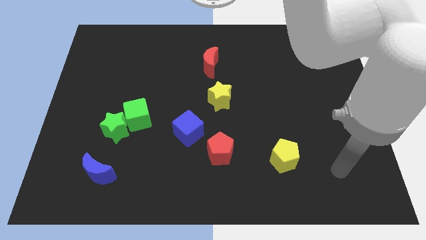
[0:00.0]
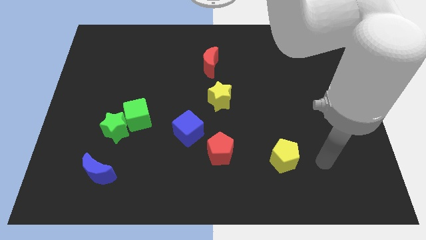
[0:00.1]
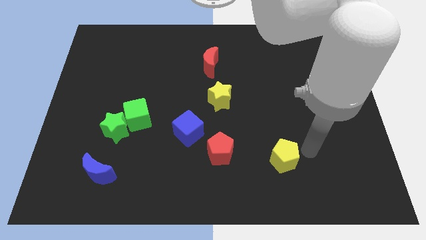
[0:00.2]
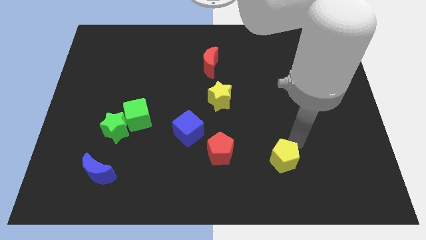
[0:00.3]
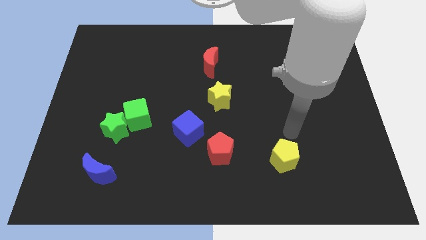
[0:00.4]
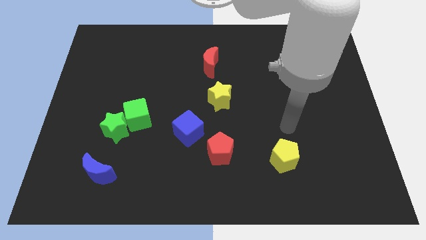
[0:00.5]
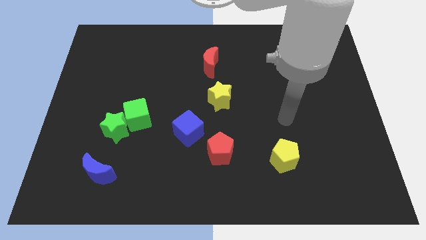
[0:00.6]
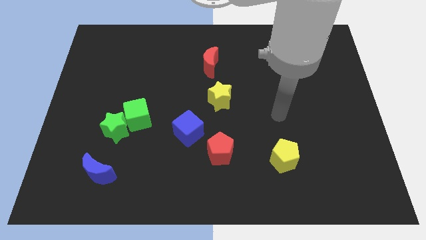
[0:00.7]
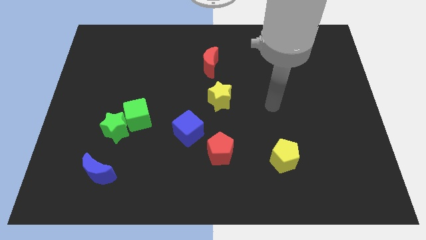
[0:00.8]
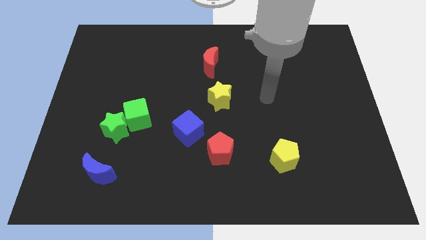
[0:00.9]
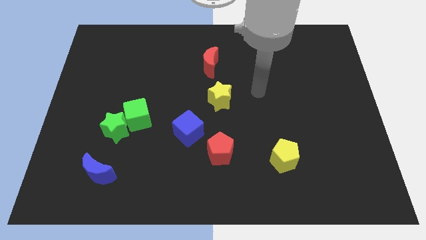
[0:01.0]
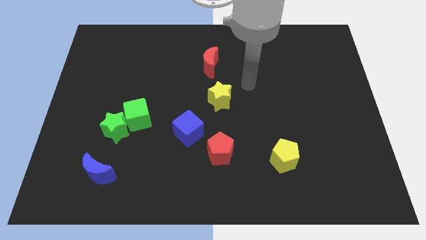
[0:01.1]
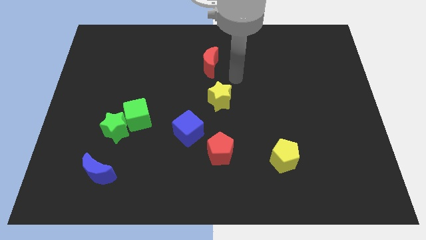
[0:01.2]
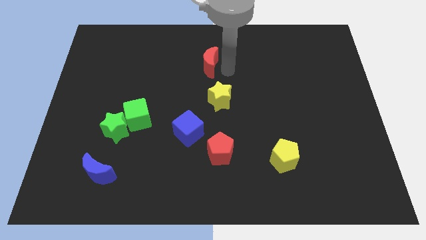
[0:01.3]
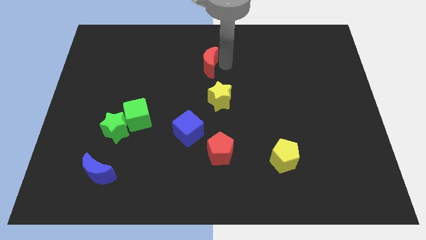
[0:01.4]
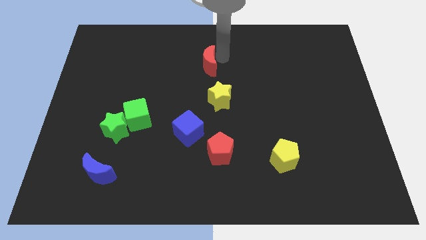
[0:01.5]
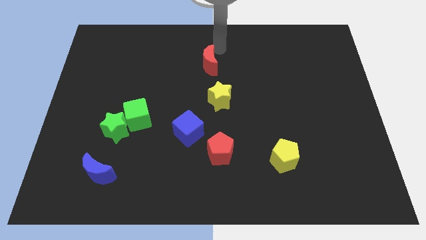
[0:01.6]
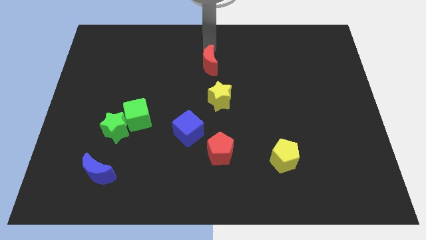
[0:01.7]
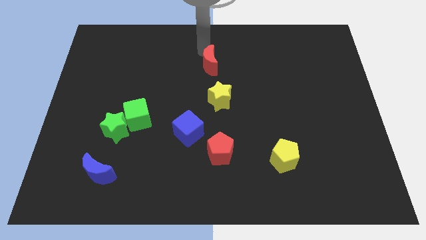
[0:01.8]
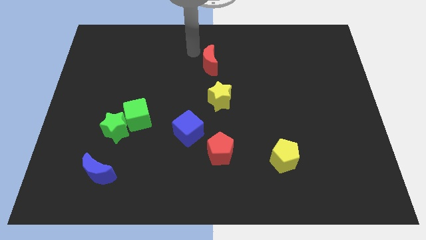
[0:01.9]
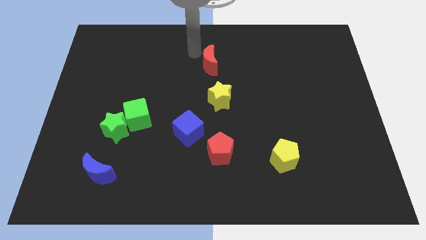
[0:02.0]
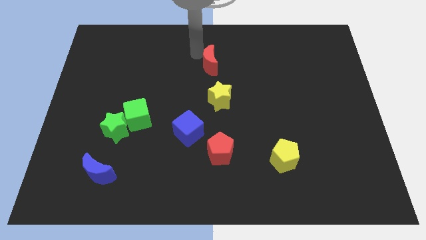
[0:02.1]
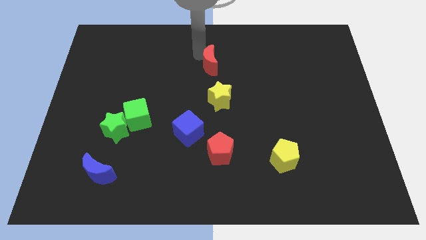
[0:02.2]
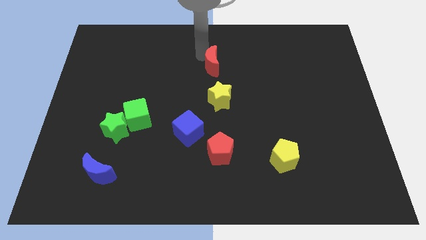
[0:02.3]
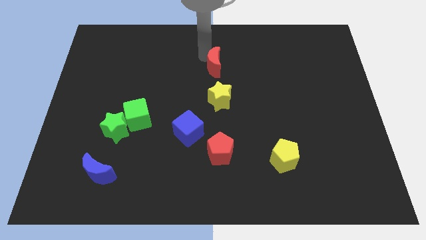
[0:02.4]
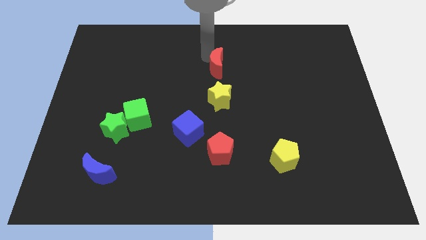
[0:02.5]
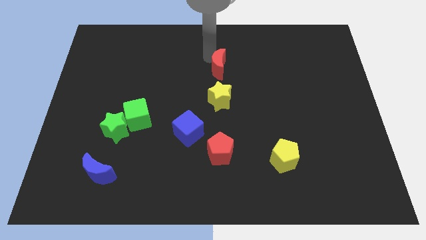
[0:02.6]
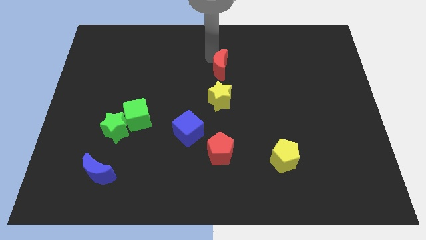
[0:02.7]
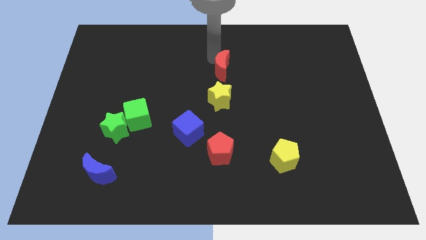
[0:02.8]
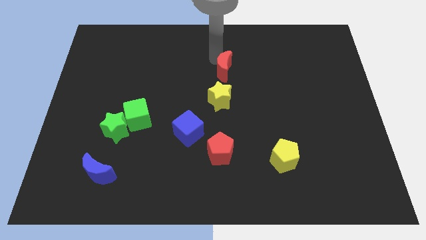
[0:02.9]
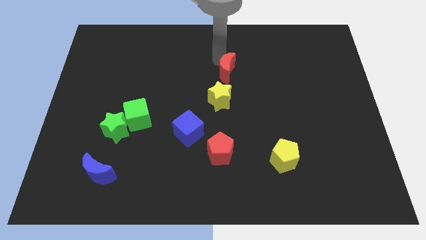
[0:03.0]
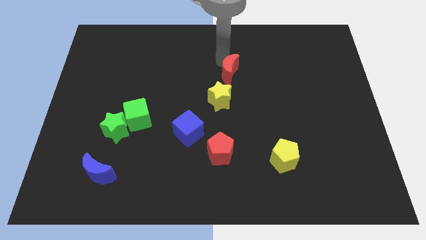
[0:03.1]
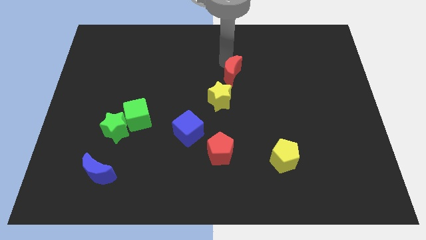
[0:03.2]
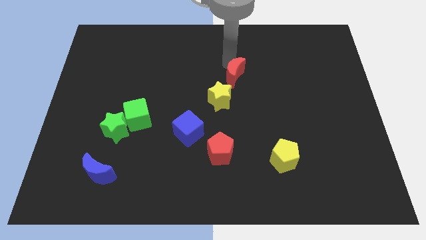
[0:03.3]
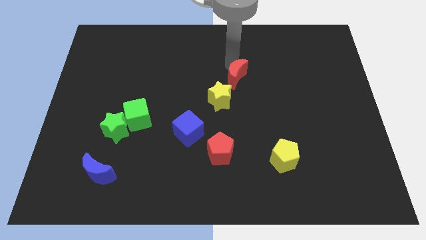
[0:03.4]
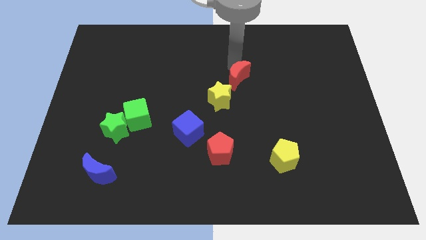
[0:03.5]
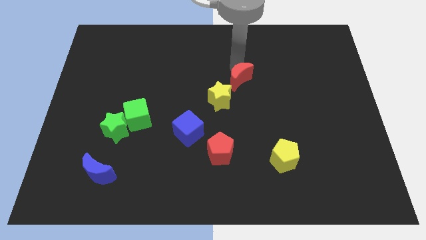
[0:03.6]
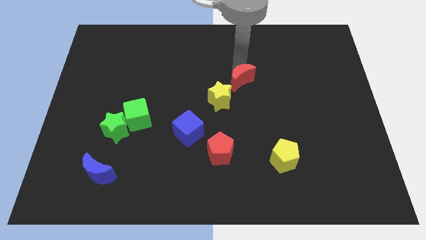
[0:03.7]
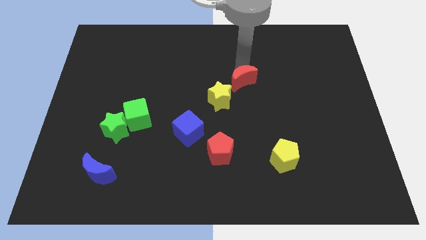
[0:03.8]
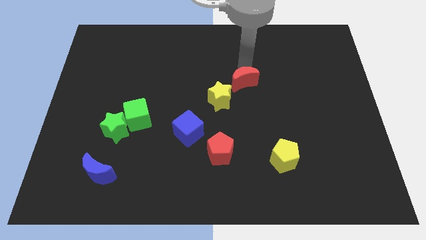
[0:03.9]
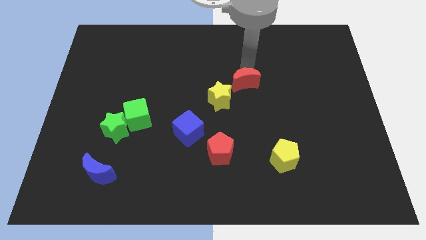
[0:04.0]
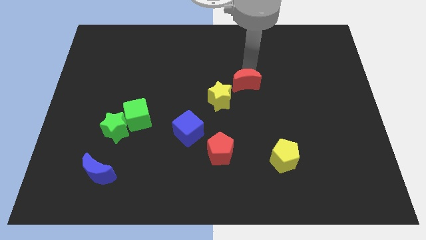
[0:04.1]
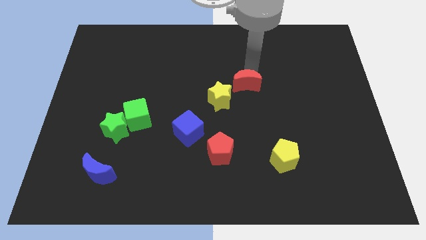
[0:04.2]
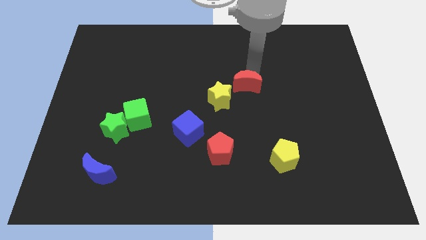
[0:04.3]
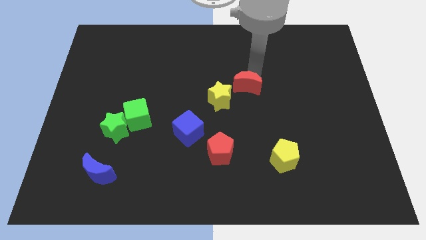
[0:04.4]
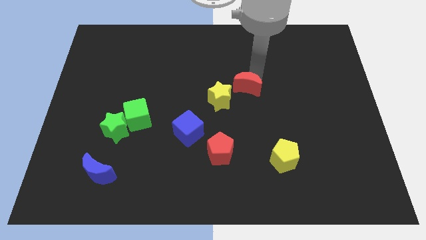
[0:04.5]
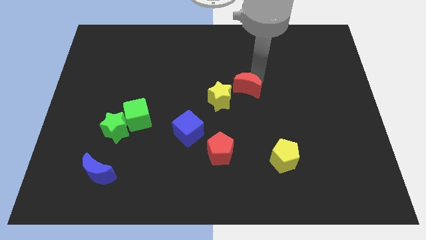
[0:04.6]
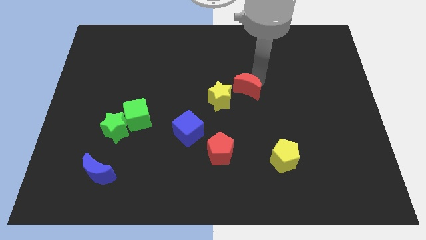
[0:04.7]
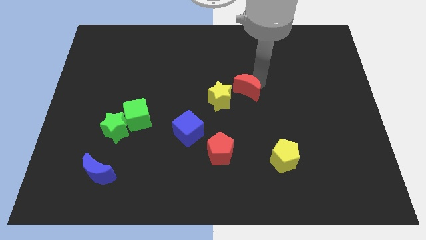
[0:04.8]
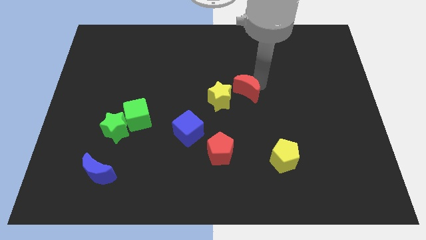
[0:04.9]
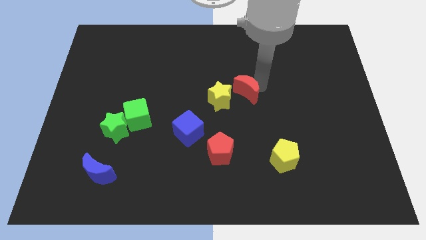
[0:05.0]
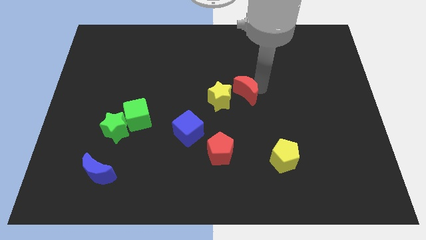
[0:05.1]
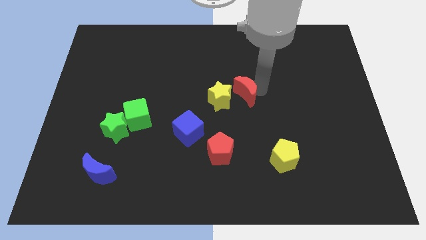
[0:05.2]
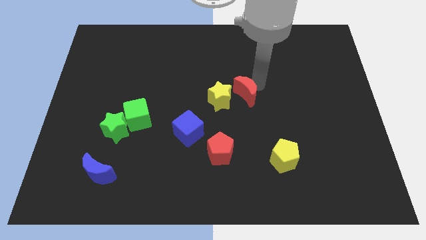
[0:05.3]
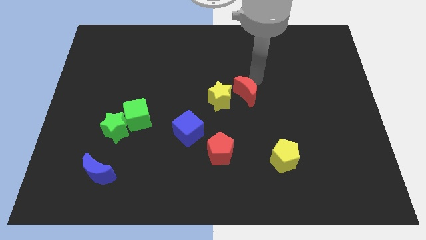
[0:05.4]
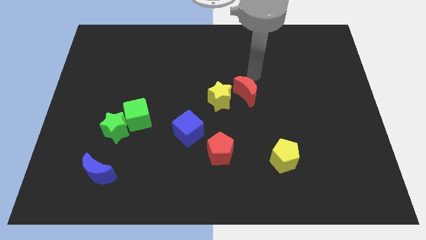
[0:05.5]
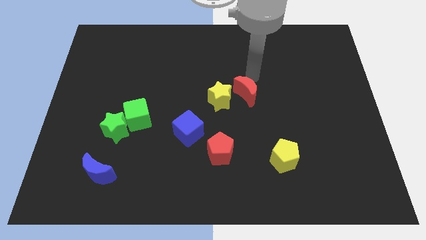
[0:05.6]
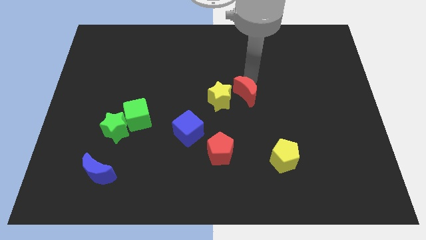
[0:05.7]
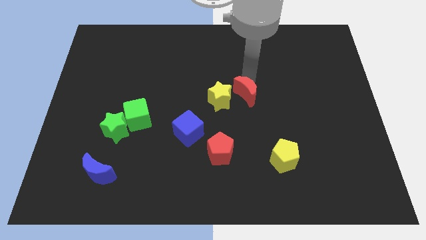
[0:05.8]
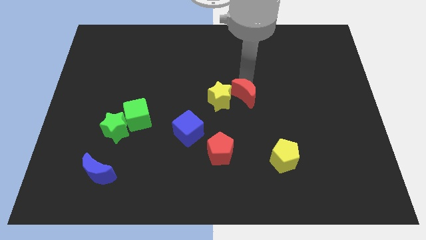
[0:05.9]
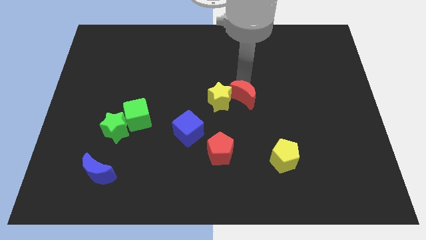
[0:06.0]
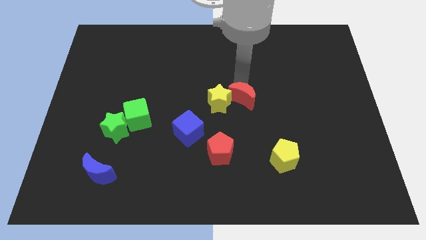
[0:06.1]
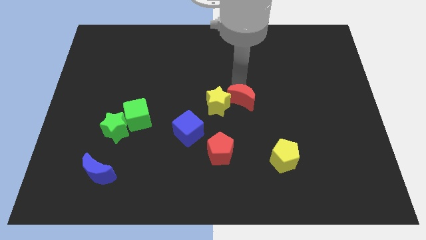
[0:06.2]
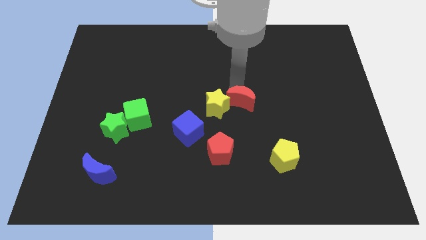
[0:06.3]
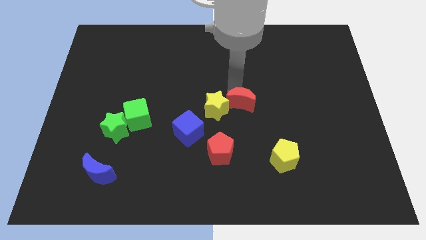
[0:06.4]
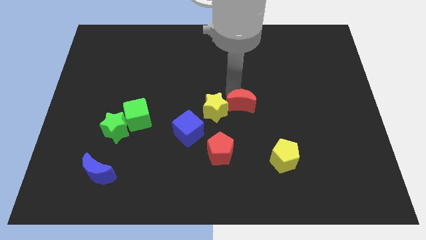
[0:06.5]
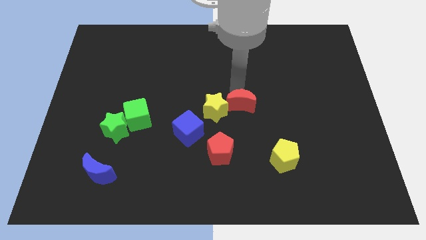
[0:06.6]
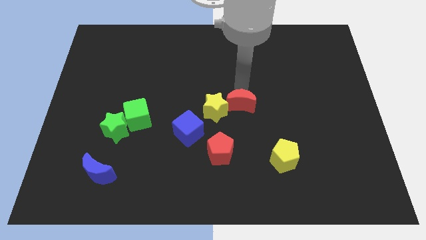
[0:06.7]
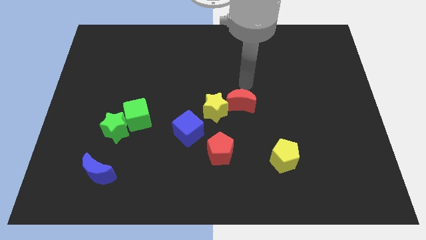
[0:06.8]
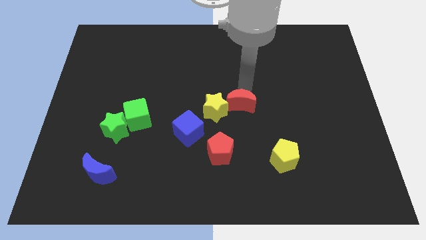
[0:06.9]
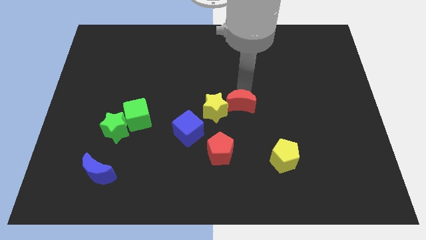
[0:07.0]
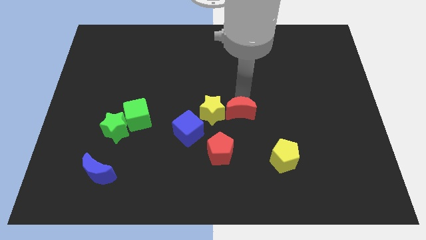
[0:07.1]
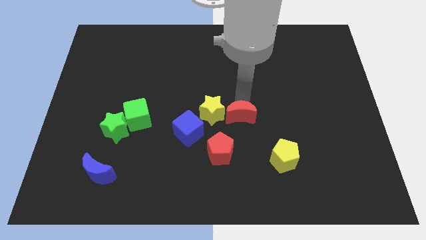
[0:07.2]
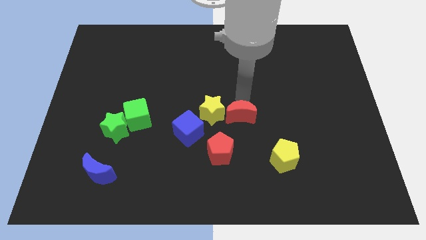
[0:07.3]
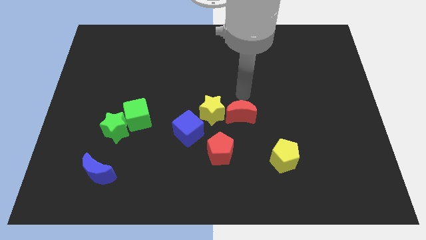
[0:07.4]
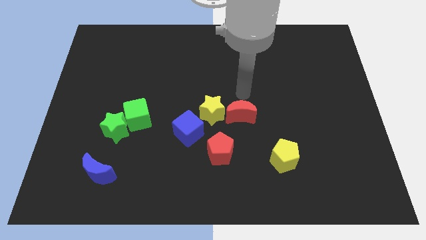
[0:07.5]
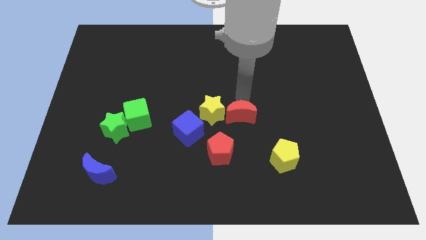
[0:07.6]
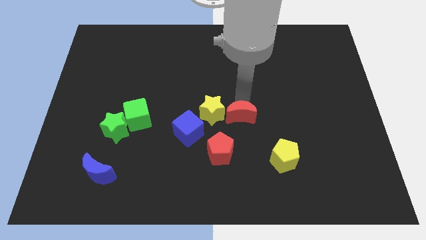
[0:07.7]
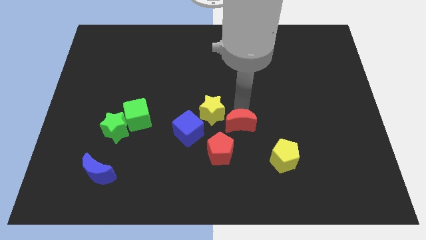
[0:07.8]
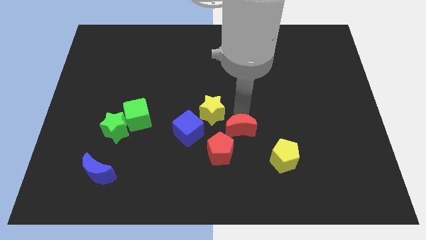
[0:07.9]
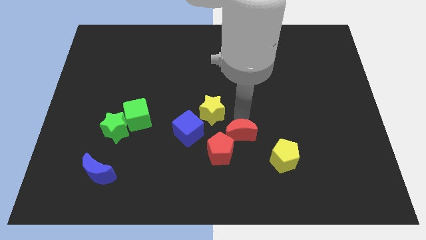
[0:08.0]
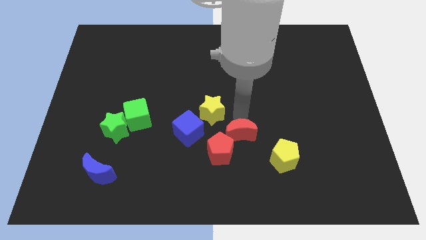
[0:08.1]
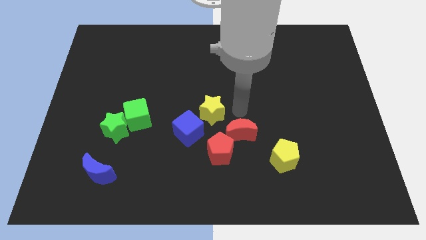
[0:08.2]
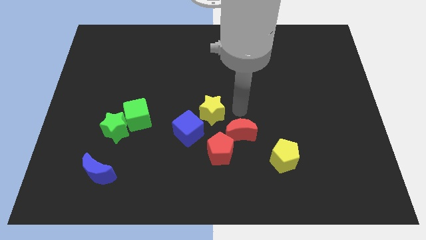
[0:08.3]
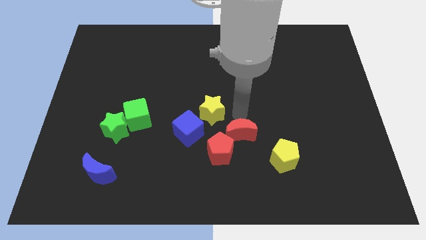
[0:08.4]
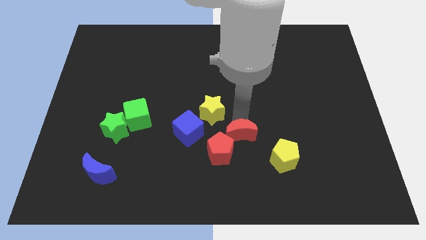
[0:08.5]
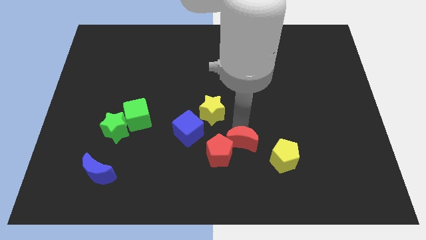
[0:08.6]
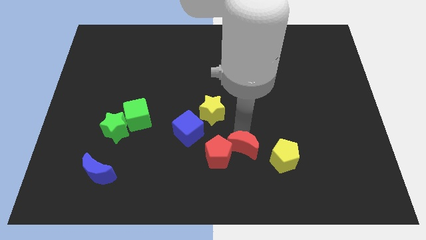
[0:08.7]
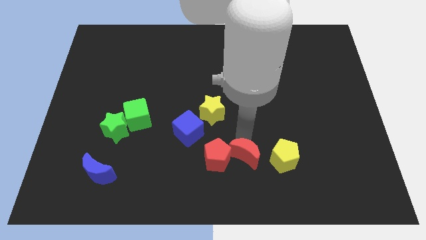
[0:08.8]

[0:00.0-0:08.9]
put the red moon to the bottom right of the red pentagon
